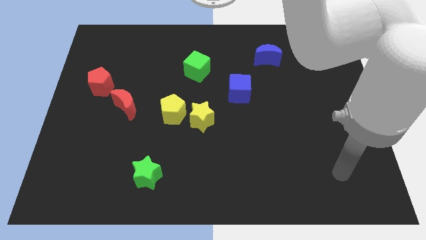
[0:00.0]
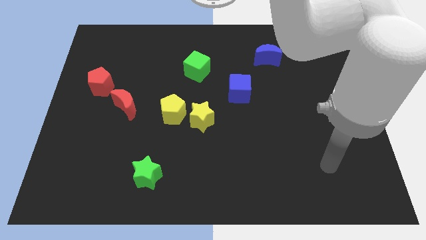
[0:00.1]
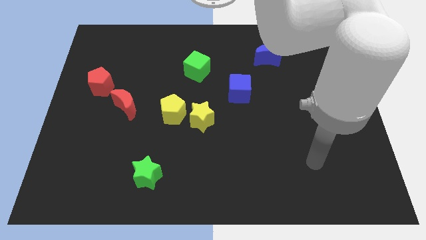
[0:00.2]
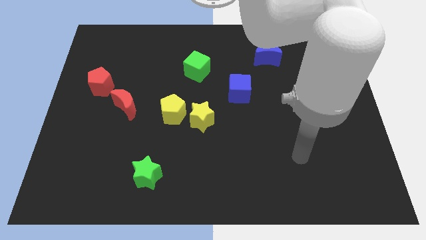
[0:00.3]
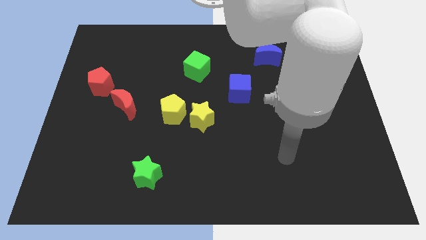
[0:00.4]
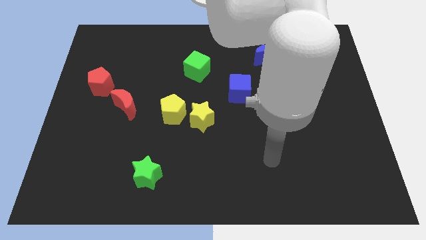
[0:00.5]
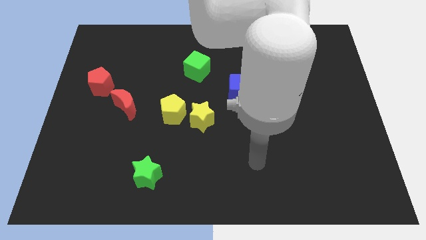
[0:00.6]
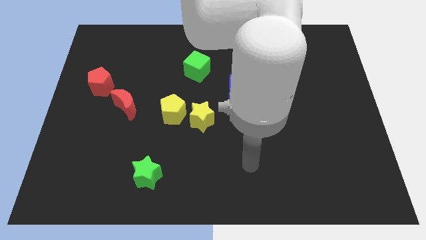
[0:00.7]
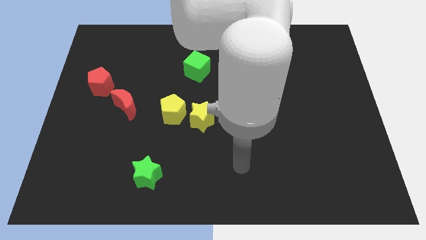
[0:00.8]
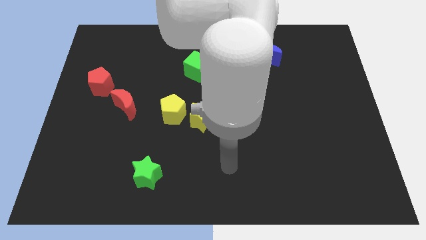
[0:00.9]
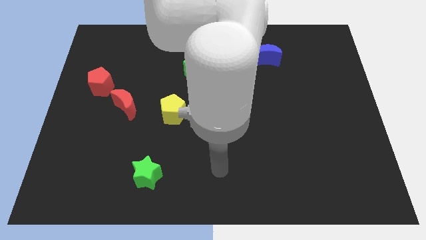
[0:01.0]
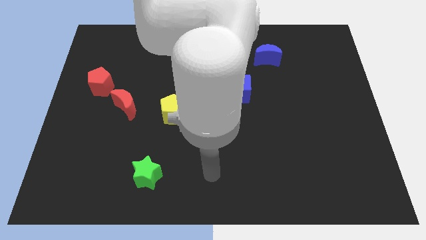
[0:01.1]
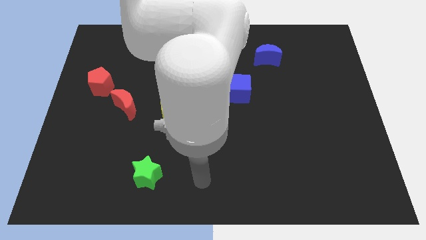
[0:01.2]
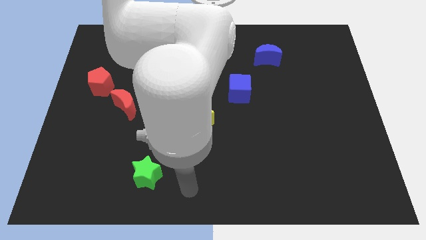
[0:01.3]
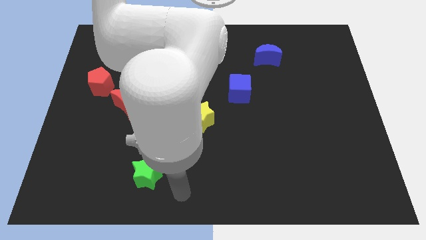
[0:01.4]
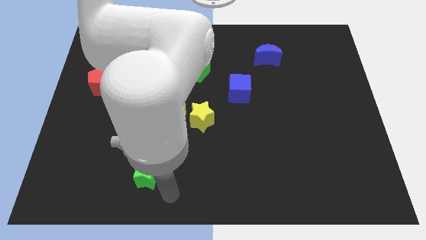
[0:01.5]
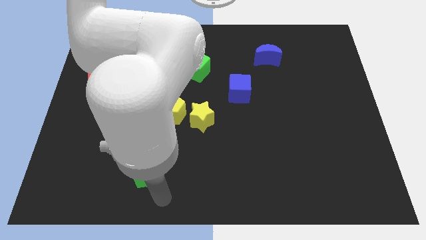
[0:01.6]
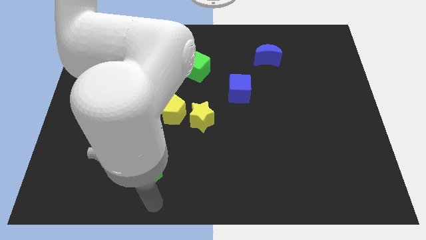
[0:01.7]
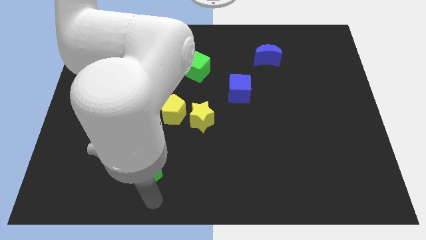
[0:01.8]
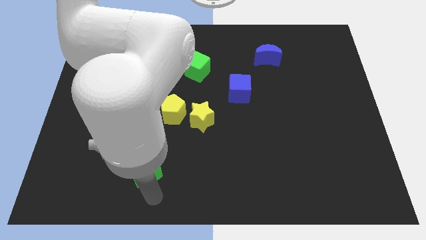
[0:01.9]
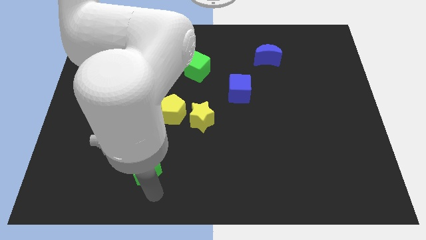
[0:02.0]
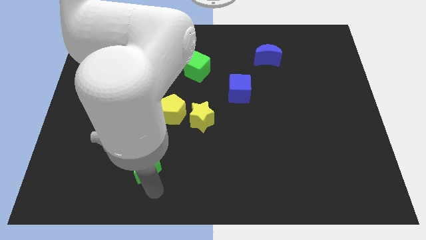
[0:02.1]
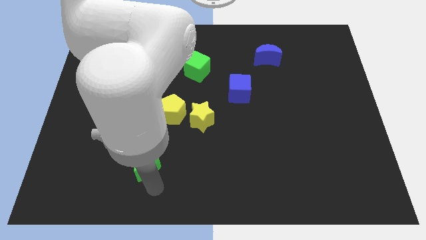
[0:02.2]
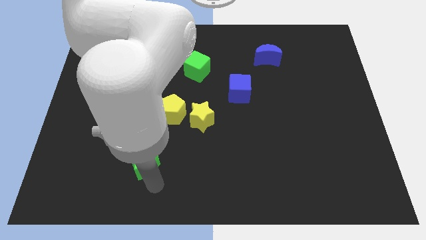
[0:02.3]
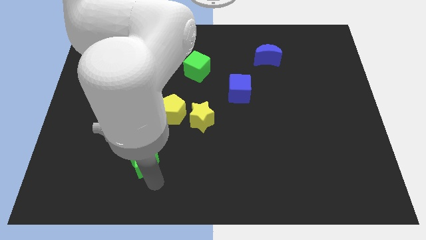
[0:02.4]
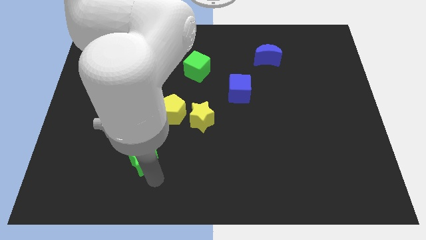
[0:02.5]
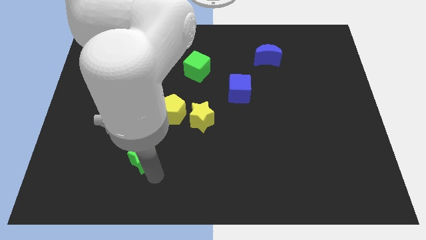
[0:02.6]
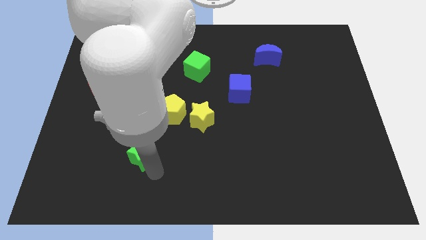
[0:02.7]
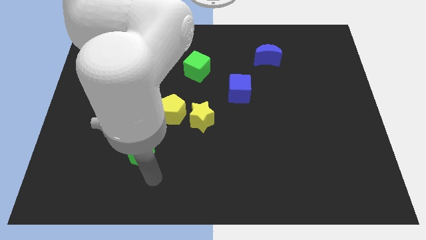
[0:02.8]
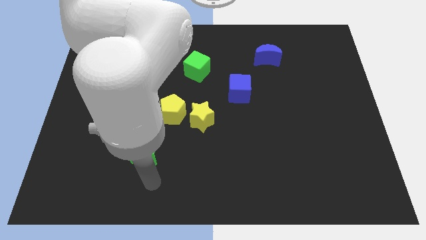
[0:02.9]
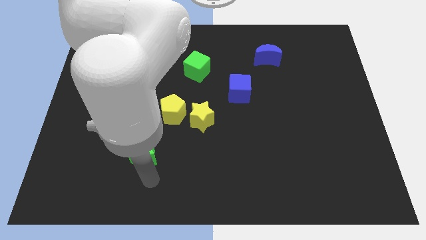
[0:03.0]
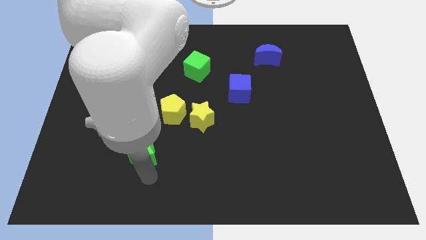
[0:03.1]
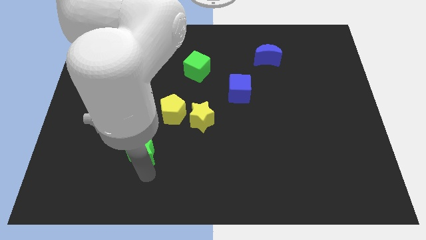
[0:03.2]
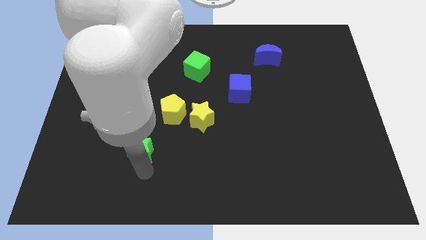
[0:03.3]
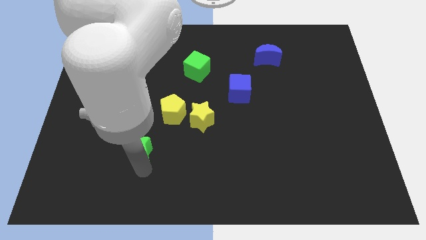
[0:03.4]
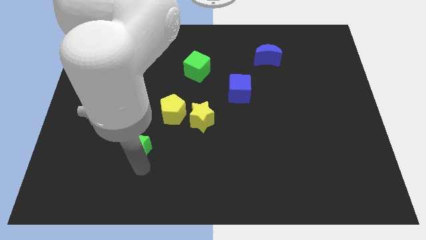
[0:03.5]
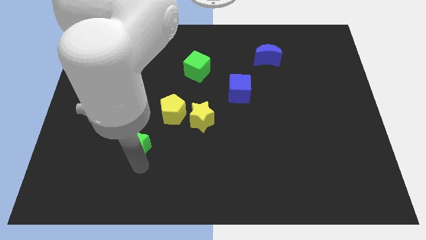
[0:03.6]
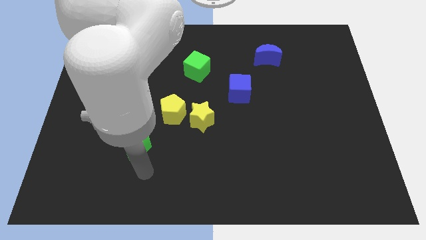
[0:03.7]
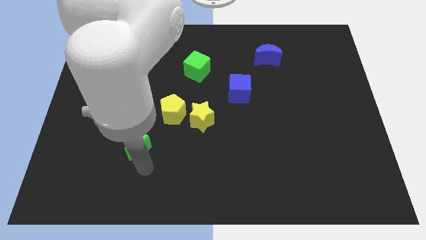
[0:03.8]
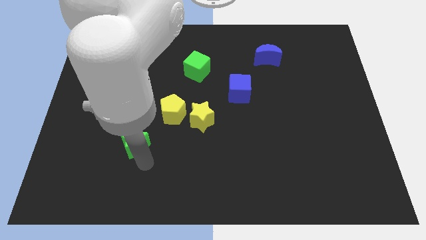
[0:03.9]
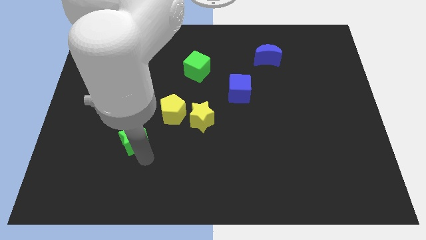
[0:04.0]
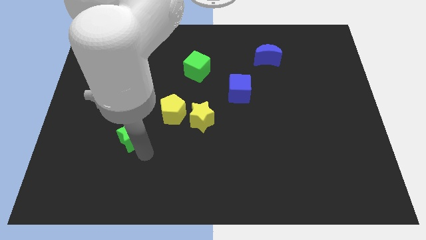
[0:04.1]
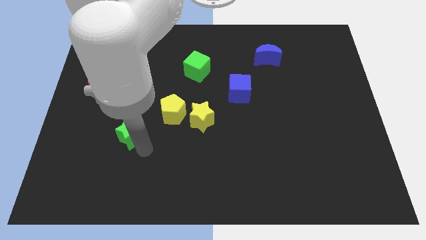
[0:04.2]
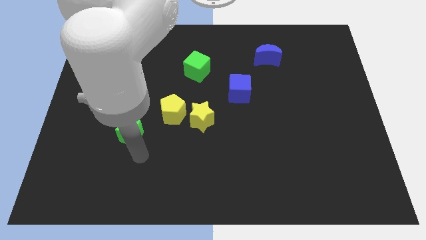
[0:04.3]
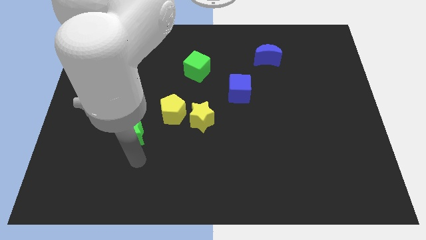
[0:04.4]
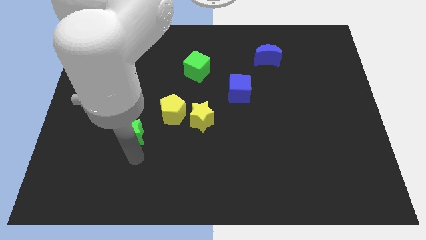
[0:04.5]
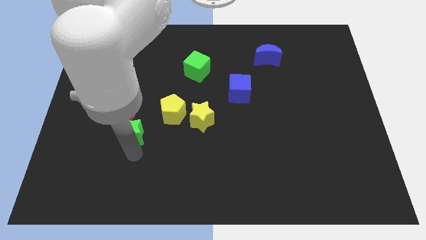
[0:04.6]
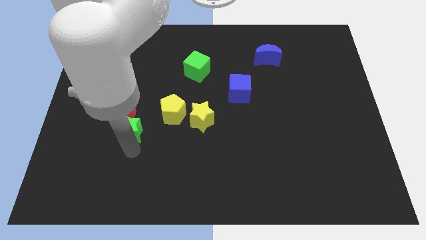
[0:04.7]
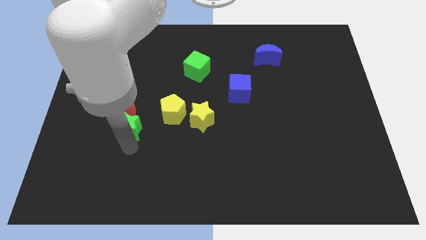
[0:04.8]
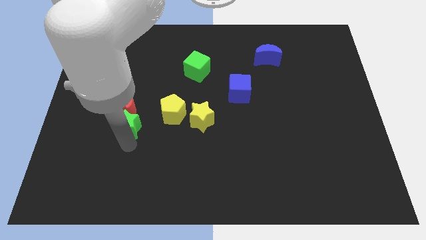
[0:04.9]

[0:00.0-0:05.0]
push the green star to the red moon

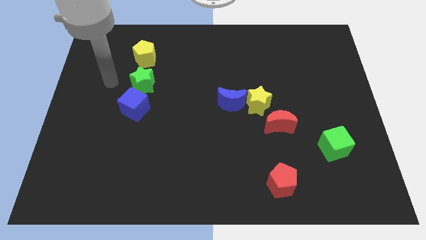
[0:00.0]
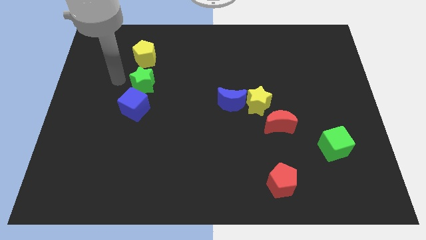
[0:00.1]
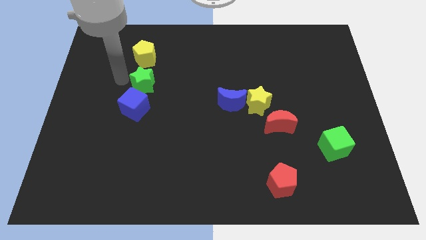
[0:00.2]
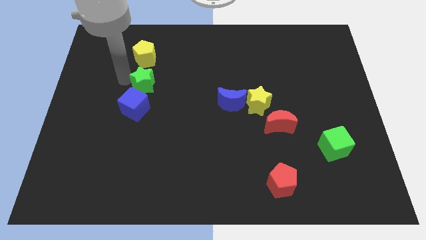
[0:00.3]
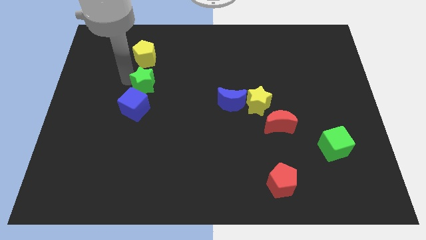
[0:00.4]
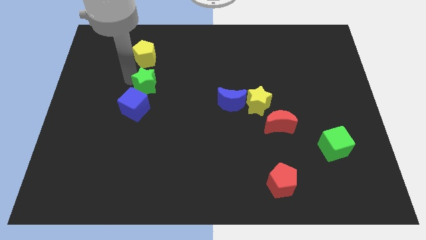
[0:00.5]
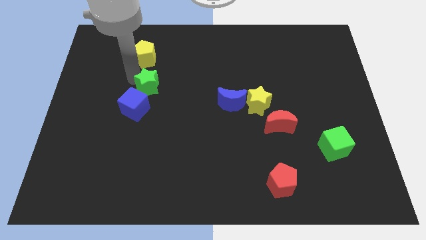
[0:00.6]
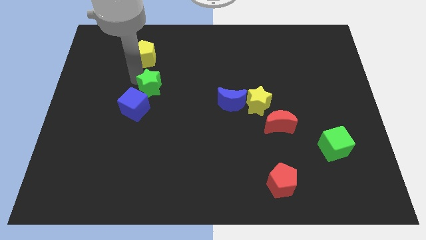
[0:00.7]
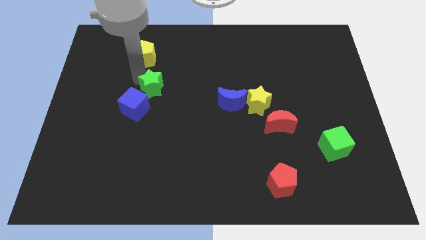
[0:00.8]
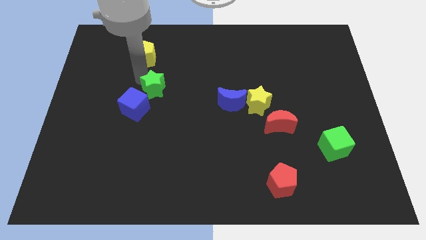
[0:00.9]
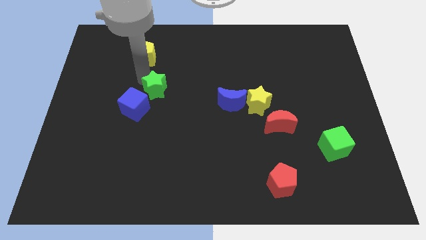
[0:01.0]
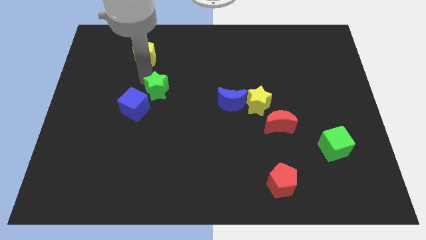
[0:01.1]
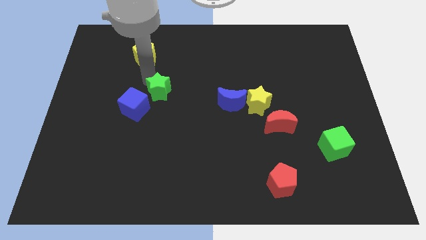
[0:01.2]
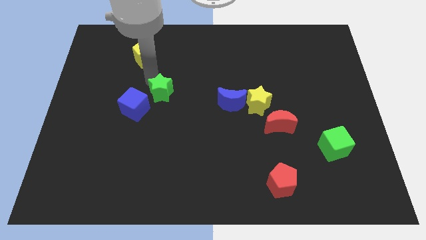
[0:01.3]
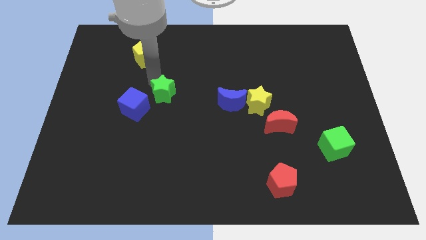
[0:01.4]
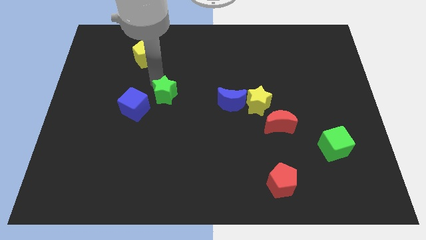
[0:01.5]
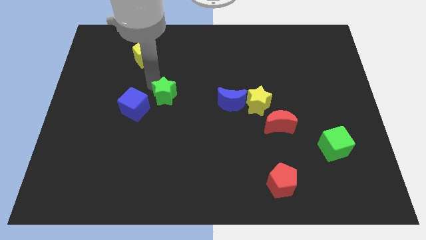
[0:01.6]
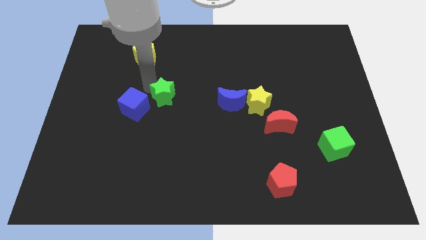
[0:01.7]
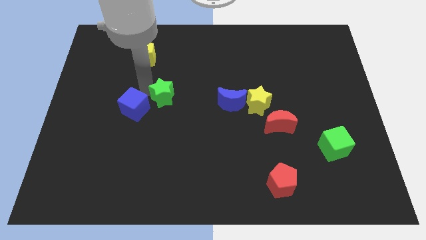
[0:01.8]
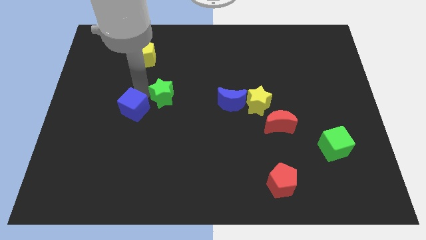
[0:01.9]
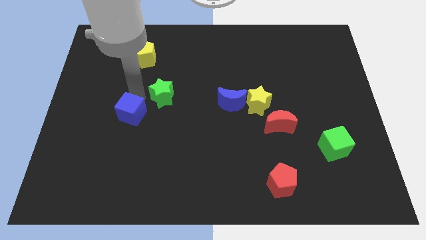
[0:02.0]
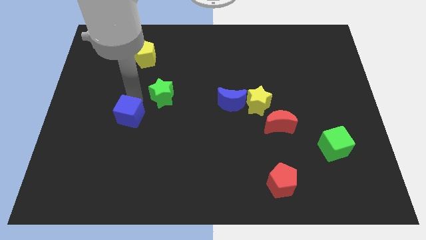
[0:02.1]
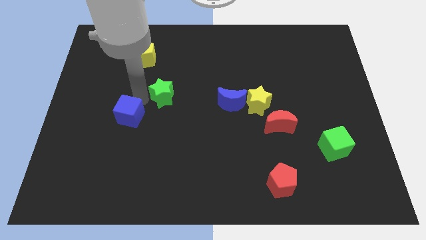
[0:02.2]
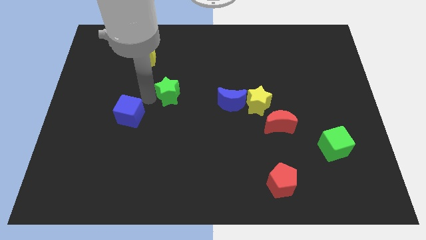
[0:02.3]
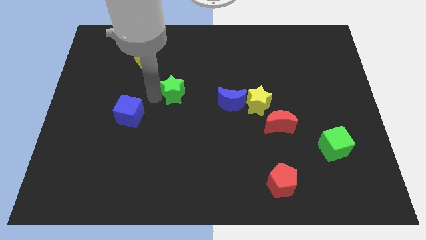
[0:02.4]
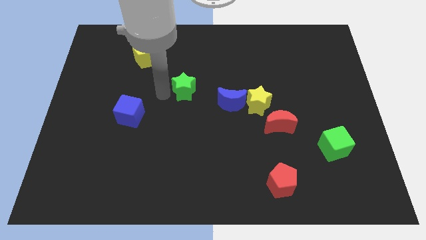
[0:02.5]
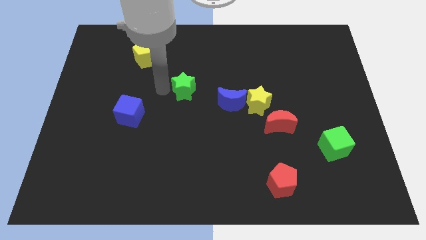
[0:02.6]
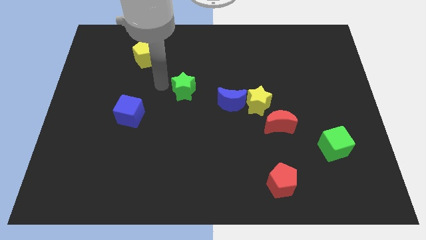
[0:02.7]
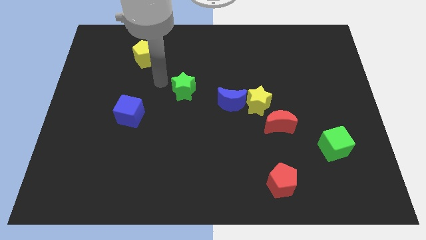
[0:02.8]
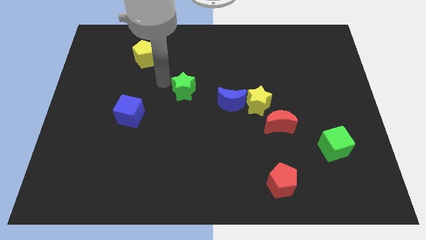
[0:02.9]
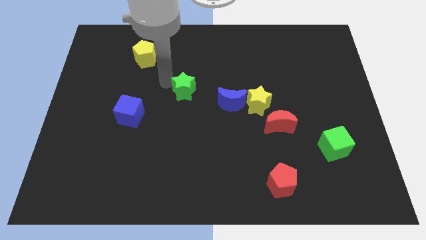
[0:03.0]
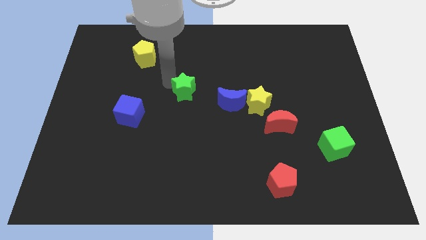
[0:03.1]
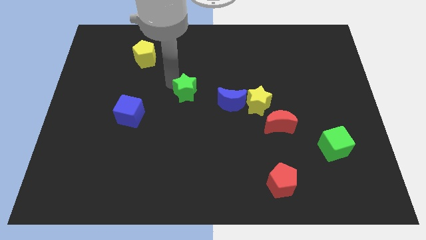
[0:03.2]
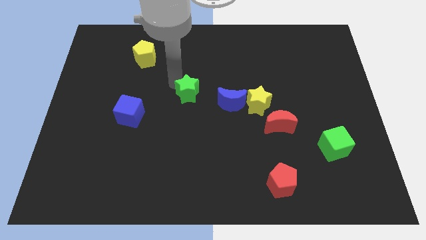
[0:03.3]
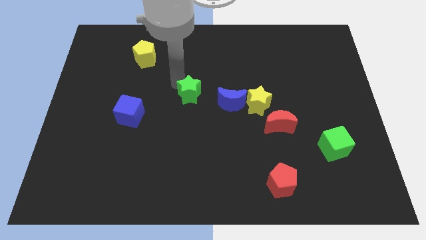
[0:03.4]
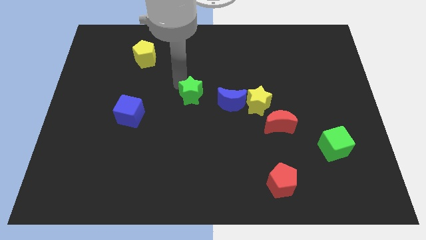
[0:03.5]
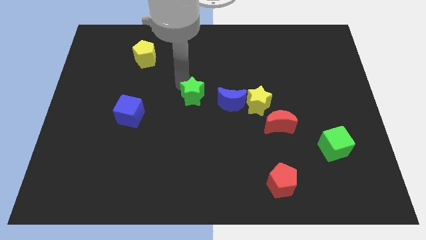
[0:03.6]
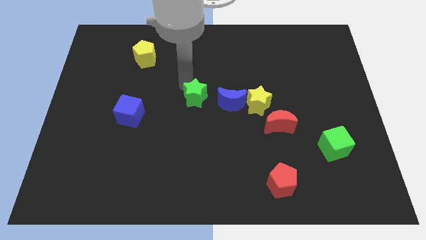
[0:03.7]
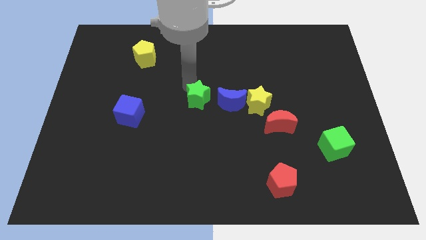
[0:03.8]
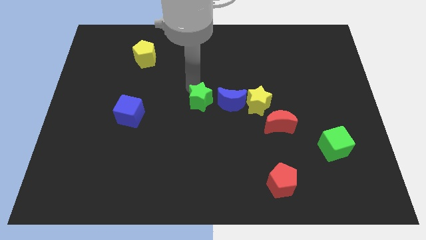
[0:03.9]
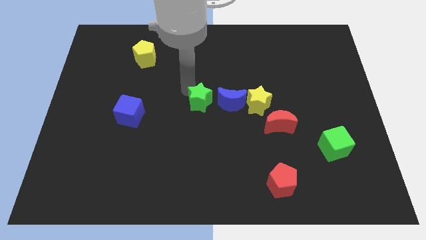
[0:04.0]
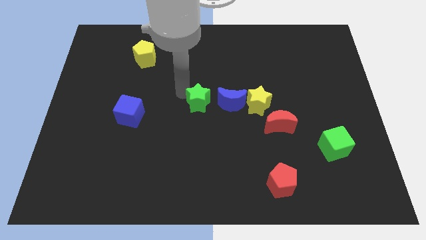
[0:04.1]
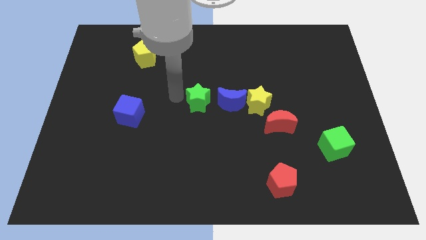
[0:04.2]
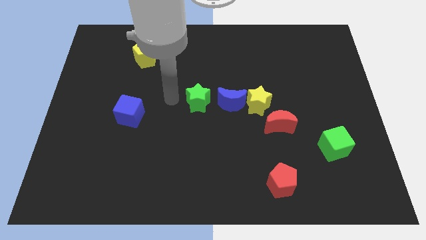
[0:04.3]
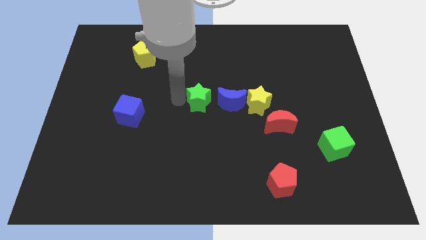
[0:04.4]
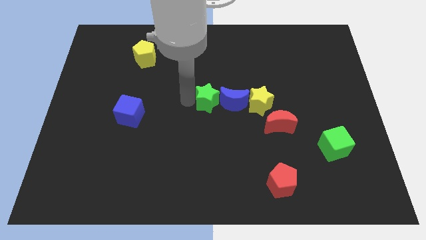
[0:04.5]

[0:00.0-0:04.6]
push the green star towards the blue moon
